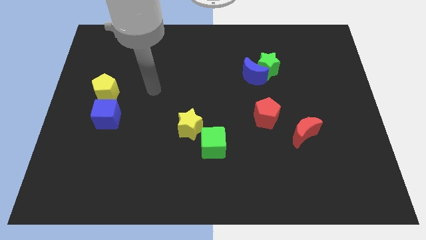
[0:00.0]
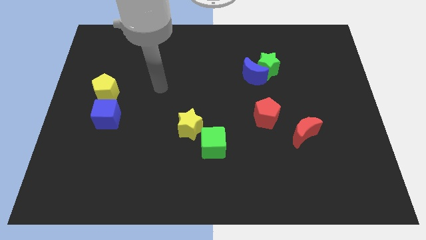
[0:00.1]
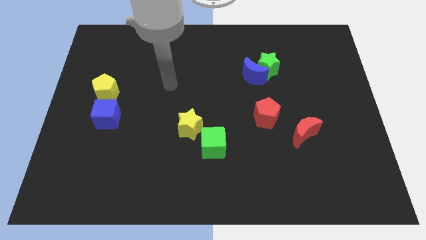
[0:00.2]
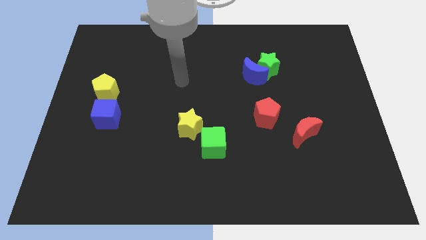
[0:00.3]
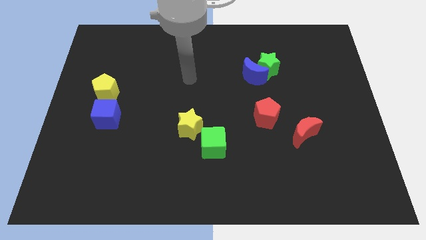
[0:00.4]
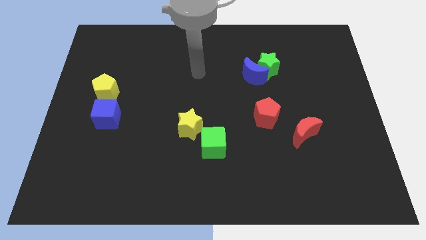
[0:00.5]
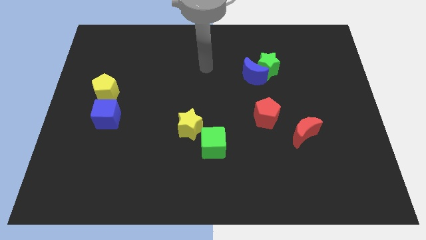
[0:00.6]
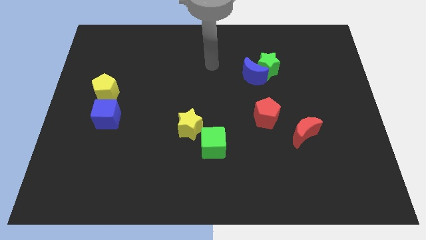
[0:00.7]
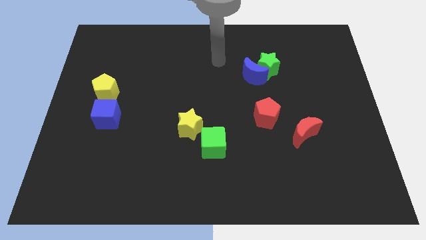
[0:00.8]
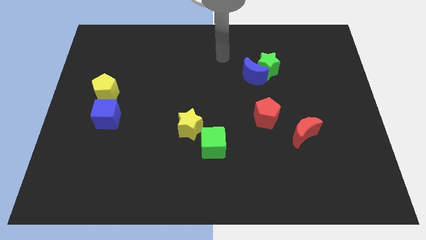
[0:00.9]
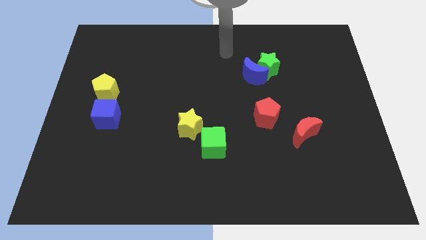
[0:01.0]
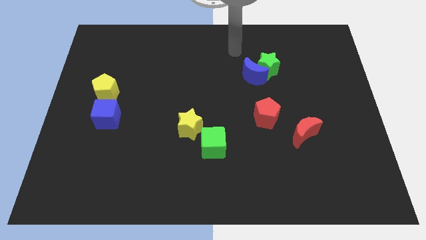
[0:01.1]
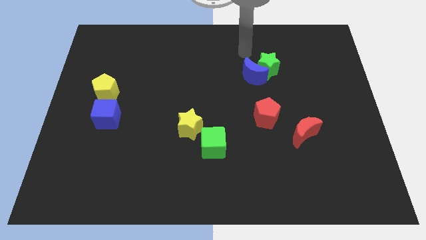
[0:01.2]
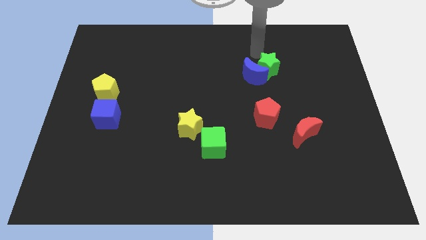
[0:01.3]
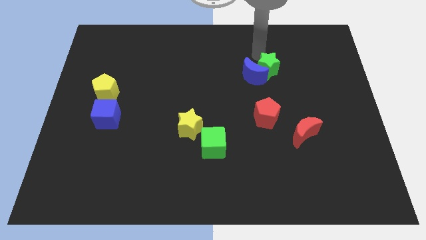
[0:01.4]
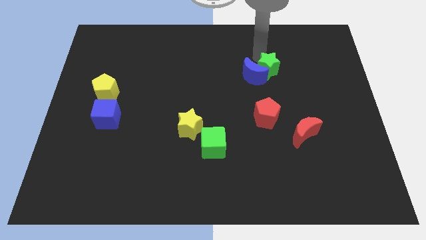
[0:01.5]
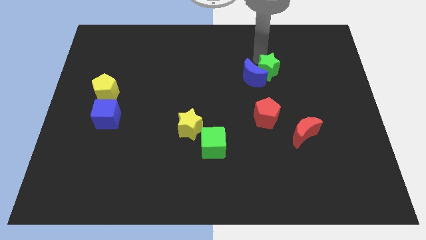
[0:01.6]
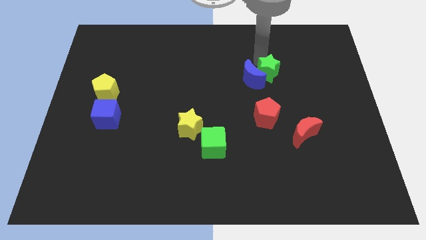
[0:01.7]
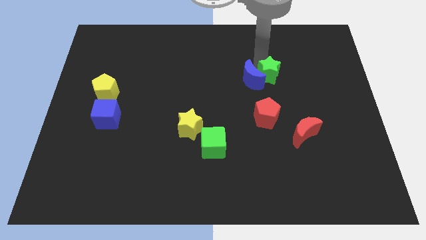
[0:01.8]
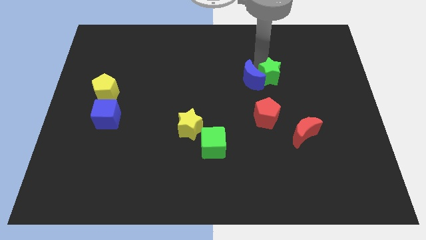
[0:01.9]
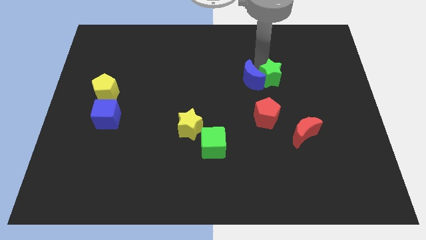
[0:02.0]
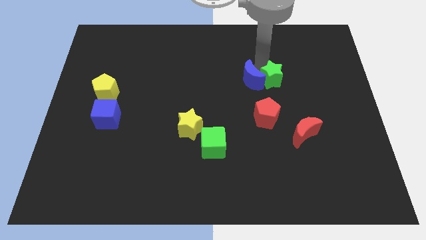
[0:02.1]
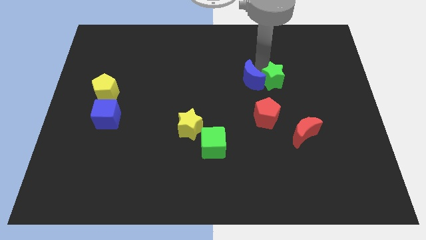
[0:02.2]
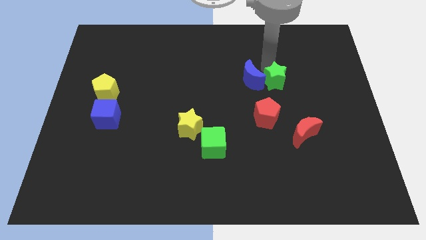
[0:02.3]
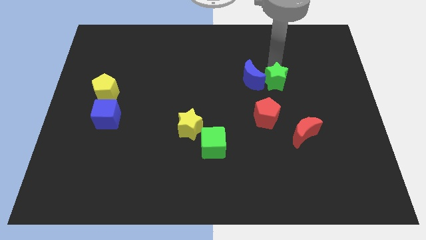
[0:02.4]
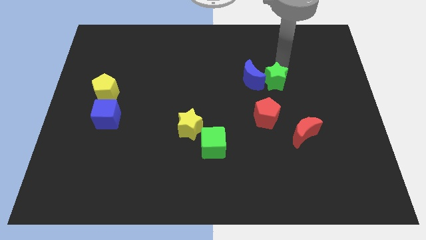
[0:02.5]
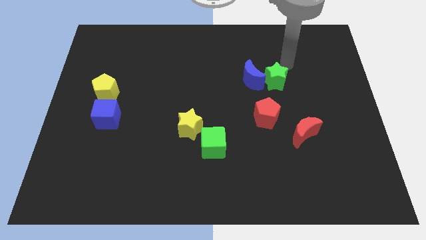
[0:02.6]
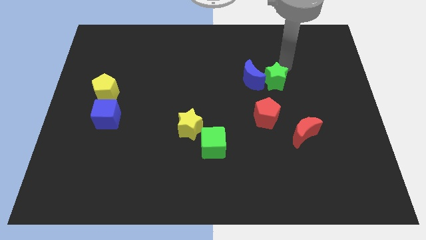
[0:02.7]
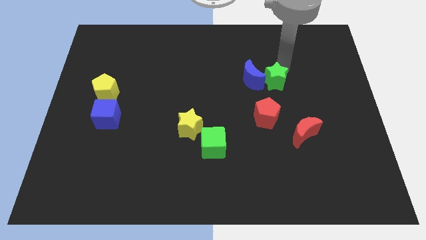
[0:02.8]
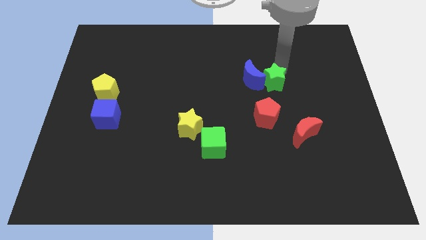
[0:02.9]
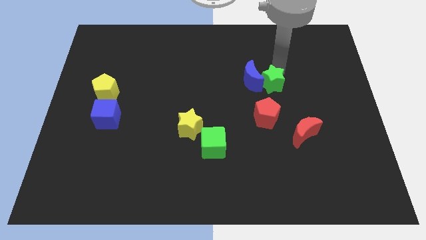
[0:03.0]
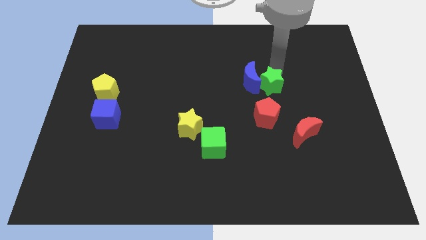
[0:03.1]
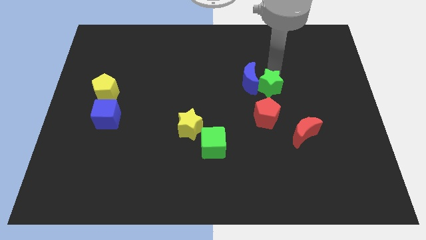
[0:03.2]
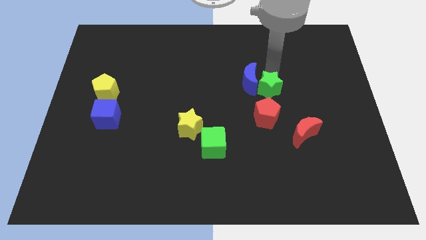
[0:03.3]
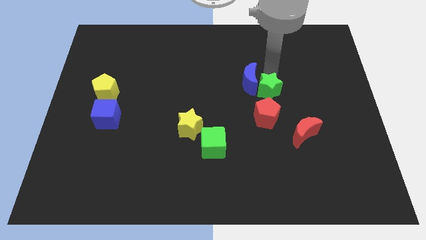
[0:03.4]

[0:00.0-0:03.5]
move the green star a bit down

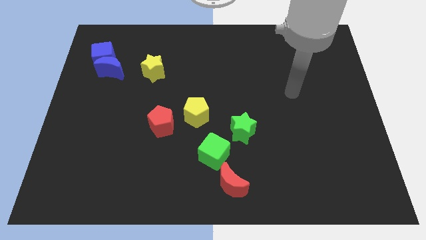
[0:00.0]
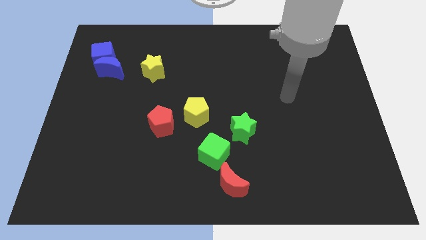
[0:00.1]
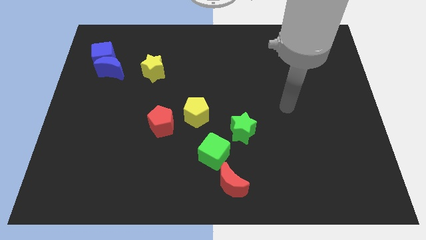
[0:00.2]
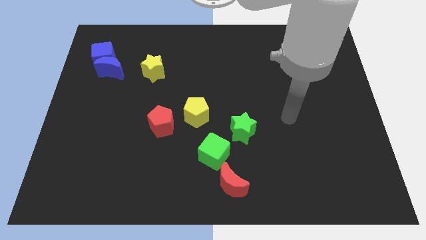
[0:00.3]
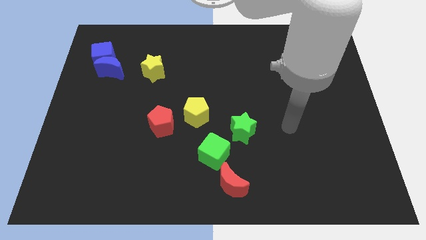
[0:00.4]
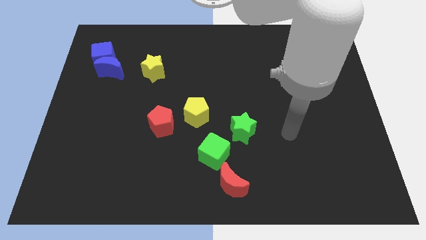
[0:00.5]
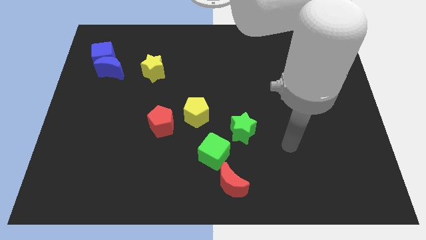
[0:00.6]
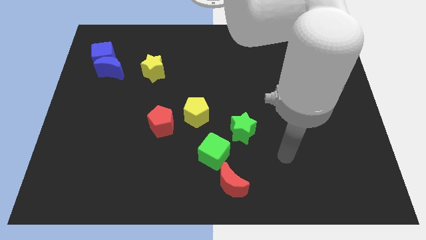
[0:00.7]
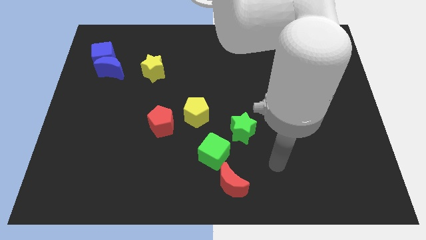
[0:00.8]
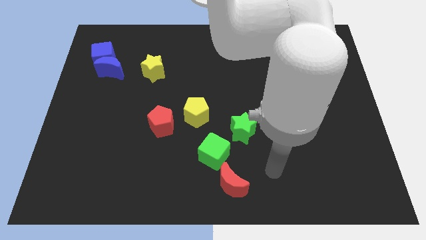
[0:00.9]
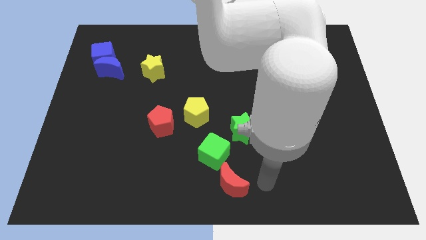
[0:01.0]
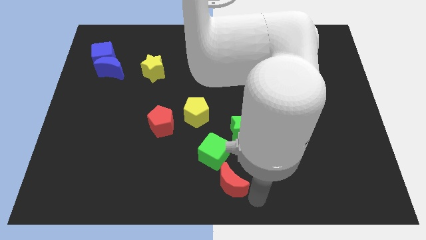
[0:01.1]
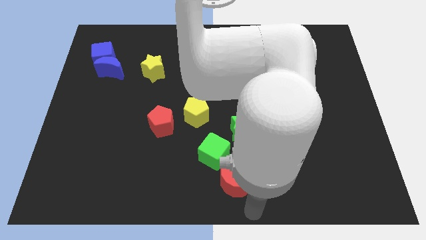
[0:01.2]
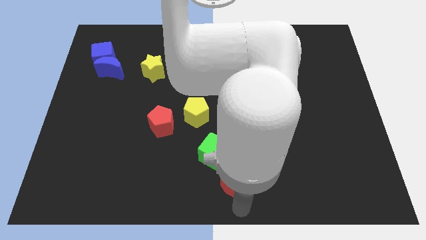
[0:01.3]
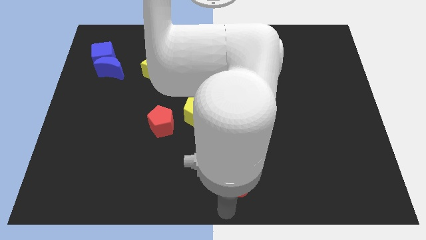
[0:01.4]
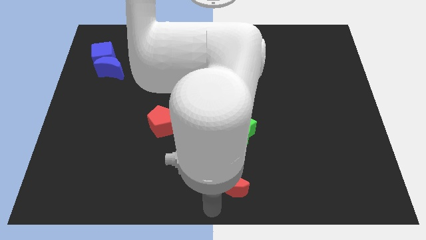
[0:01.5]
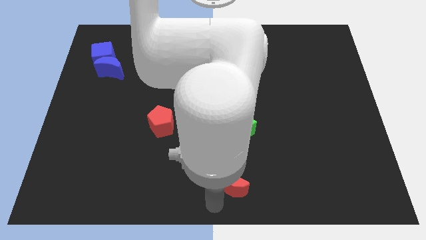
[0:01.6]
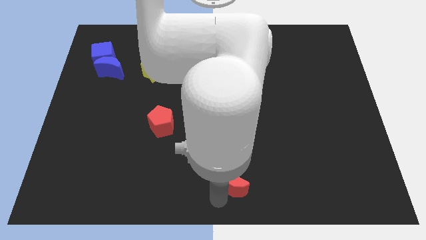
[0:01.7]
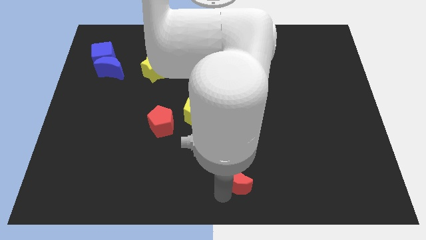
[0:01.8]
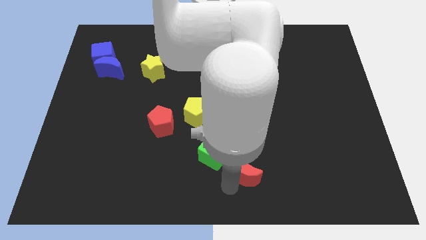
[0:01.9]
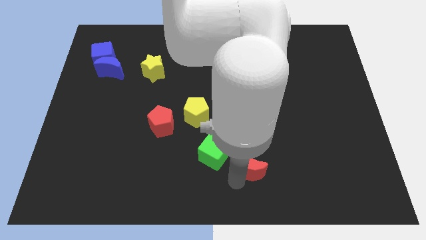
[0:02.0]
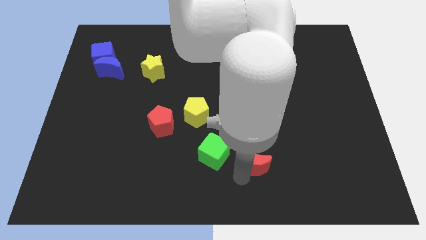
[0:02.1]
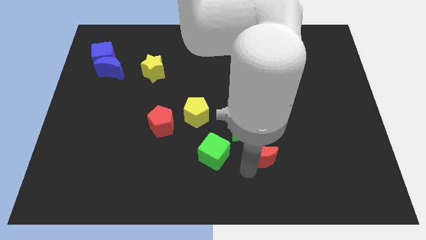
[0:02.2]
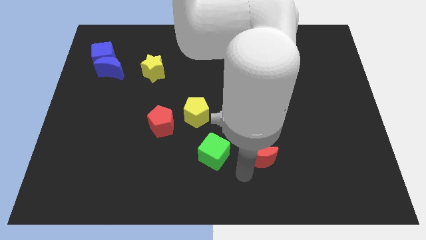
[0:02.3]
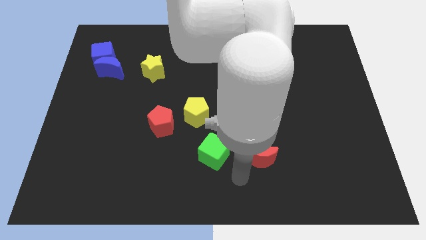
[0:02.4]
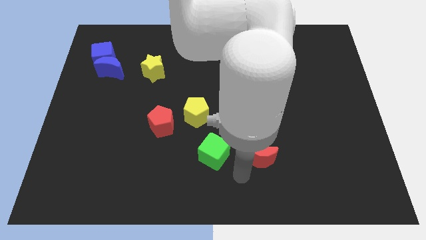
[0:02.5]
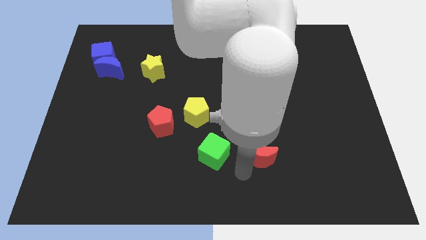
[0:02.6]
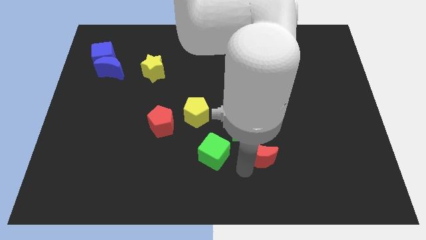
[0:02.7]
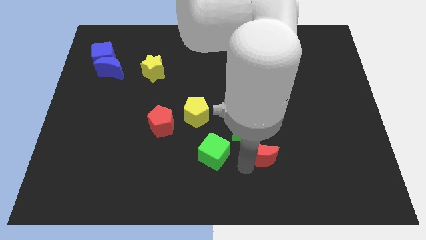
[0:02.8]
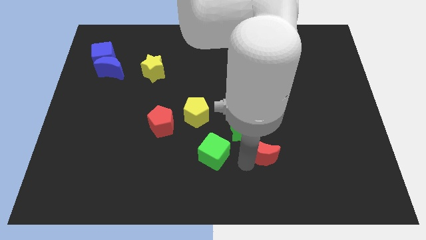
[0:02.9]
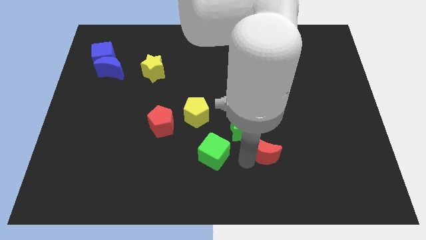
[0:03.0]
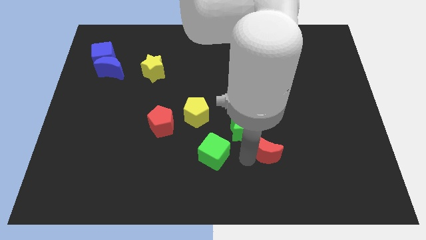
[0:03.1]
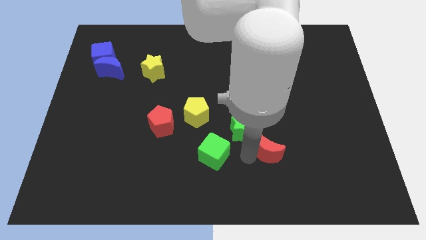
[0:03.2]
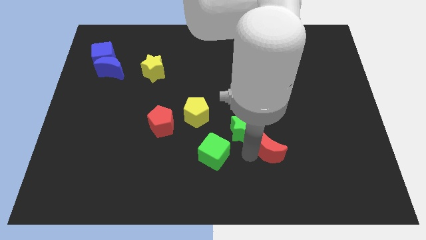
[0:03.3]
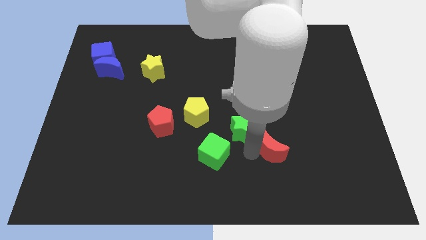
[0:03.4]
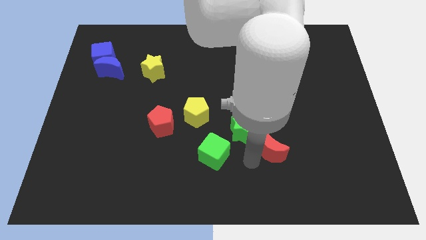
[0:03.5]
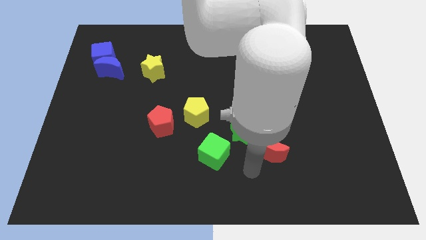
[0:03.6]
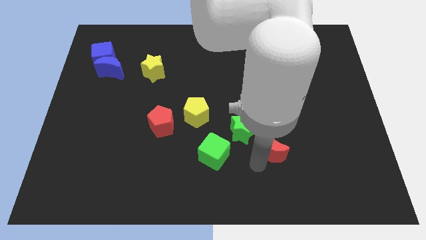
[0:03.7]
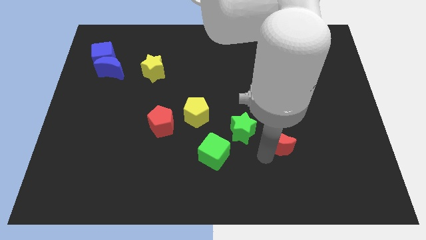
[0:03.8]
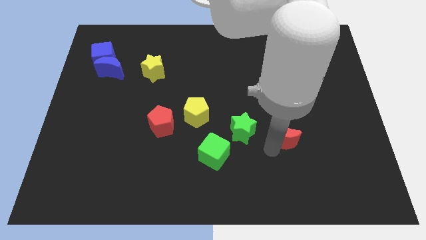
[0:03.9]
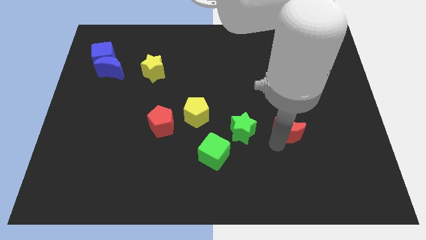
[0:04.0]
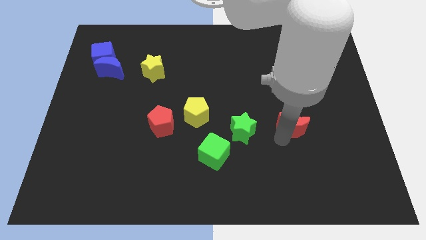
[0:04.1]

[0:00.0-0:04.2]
slide the red moon upwards and right diagonally

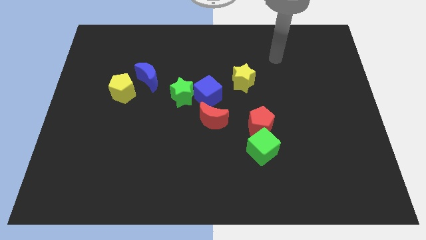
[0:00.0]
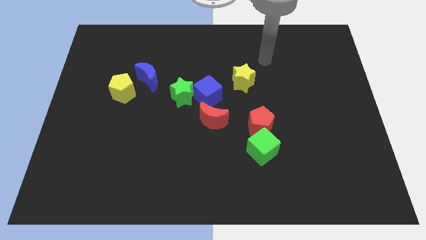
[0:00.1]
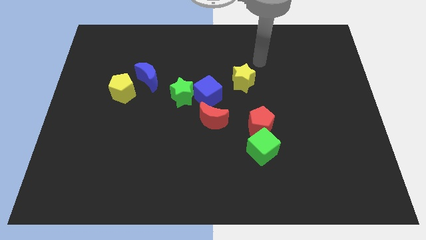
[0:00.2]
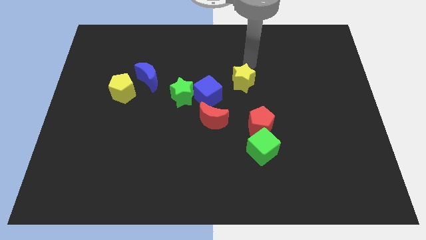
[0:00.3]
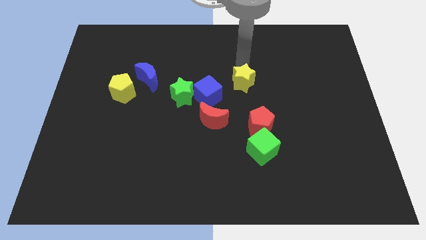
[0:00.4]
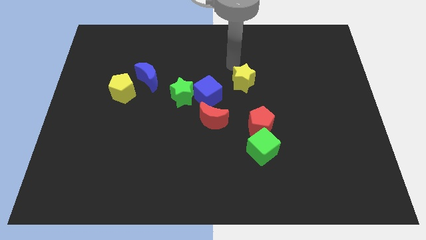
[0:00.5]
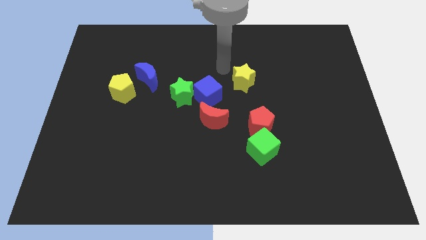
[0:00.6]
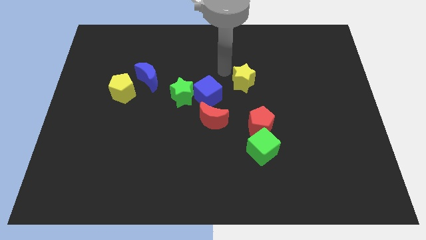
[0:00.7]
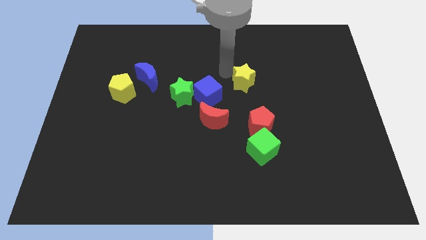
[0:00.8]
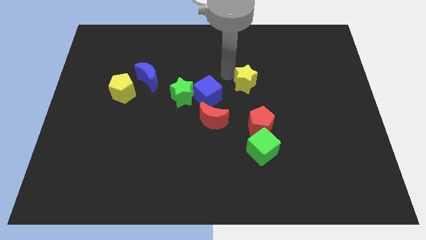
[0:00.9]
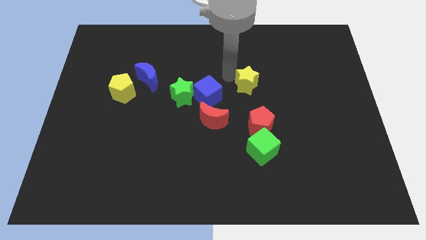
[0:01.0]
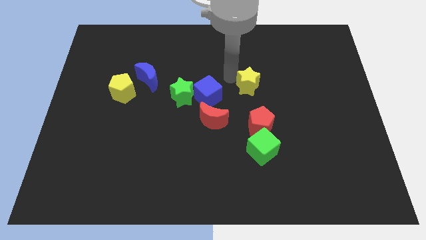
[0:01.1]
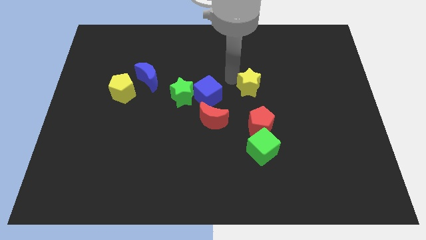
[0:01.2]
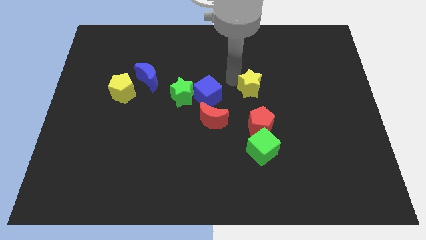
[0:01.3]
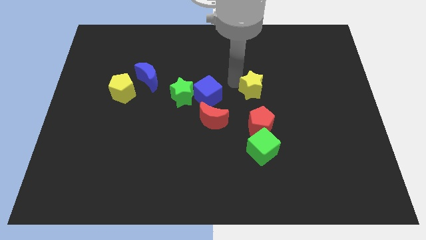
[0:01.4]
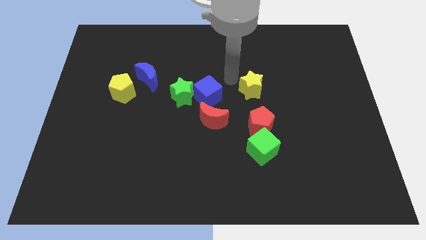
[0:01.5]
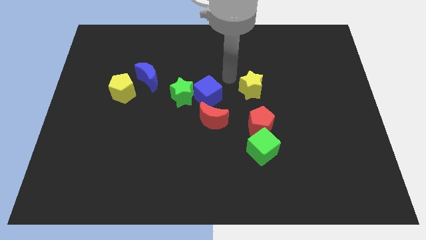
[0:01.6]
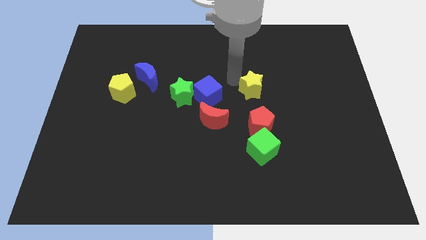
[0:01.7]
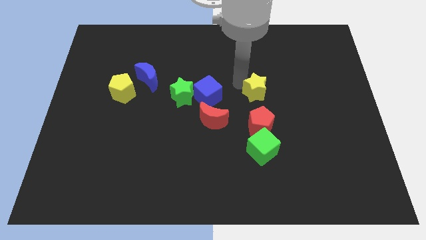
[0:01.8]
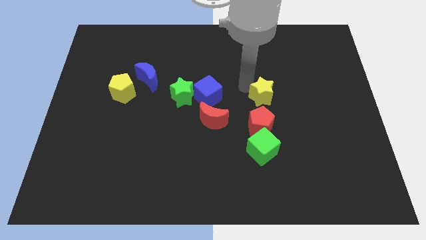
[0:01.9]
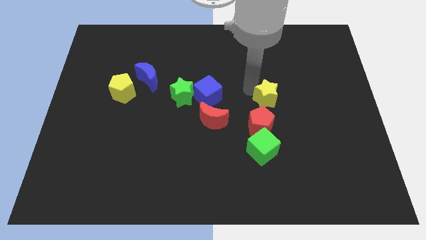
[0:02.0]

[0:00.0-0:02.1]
move the yellow star diagonally down and right a little bit
